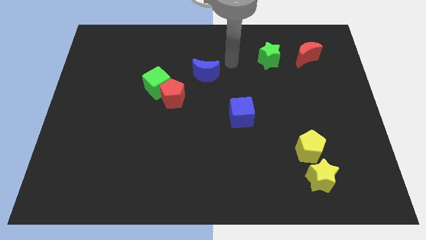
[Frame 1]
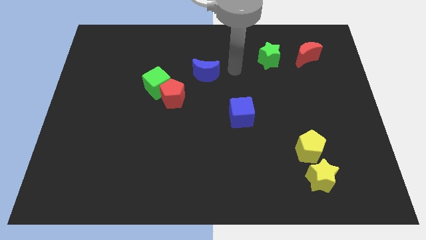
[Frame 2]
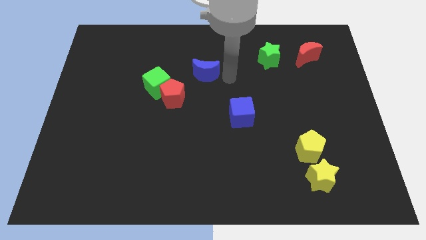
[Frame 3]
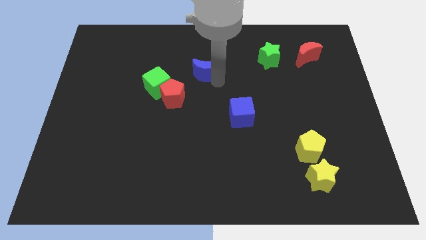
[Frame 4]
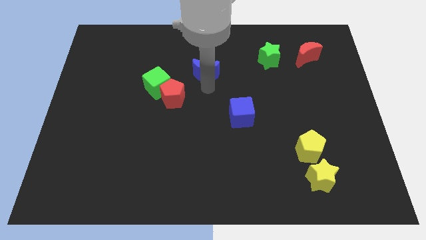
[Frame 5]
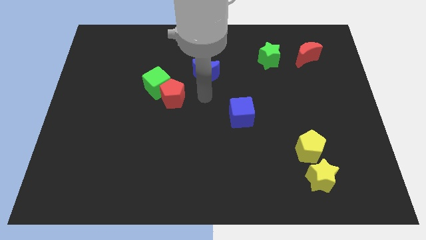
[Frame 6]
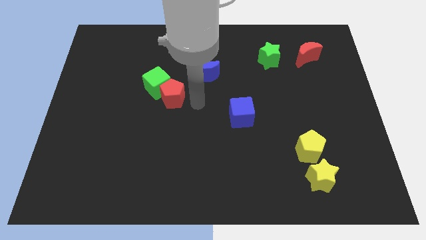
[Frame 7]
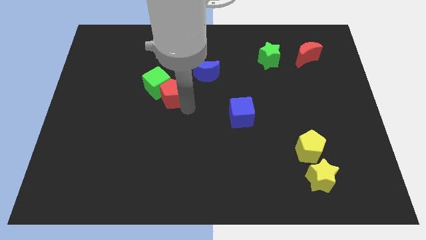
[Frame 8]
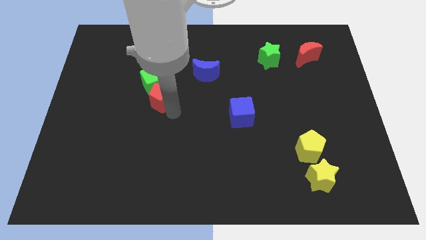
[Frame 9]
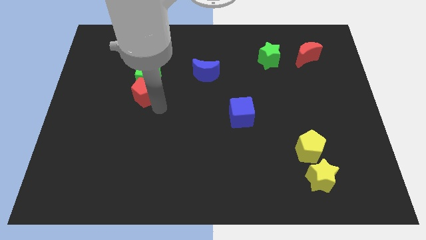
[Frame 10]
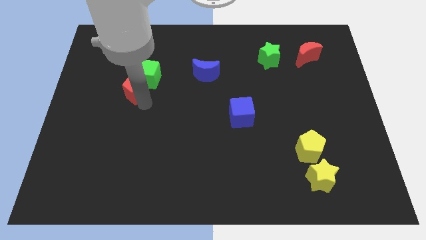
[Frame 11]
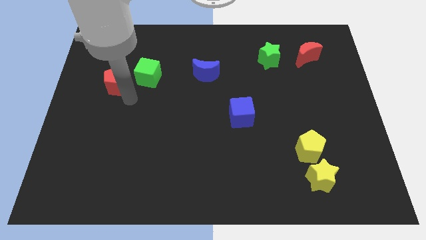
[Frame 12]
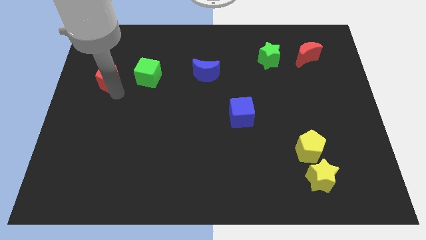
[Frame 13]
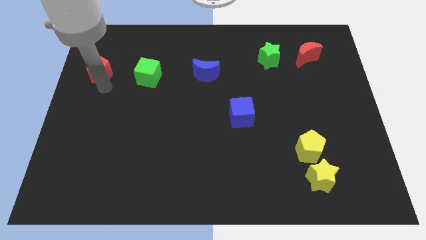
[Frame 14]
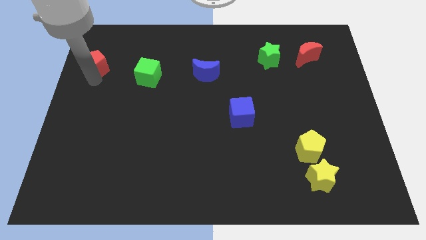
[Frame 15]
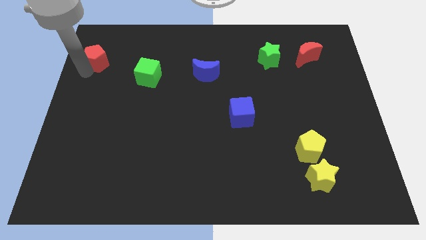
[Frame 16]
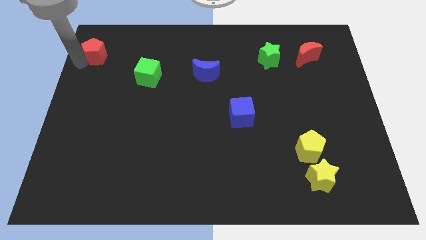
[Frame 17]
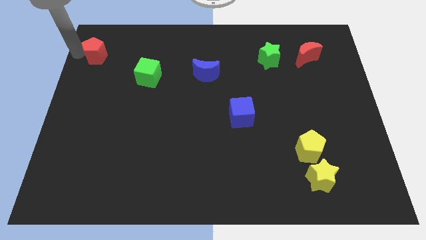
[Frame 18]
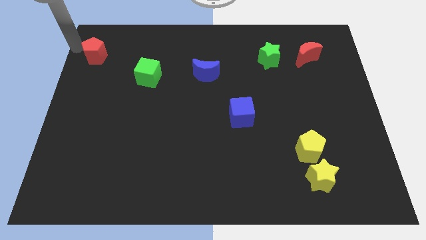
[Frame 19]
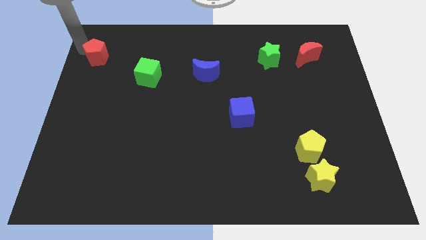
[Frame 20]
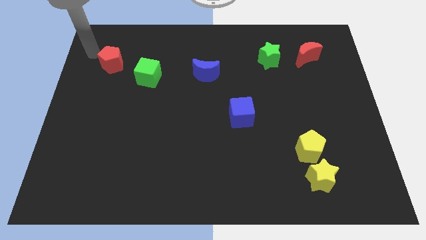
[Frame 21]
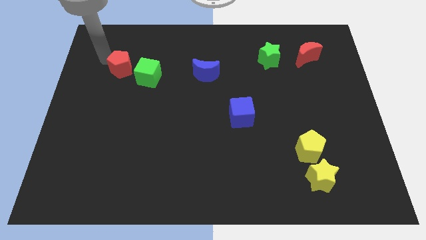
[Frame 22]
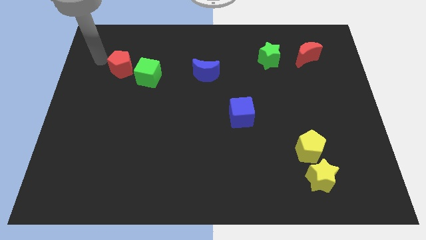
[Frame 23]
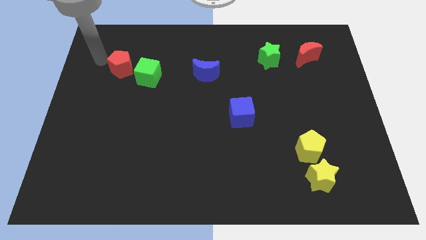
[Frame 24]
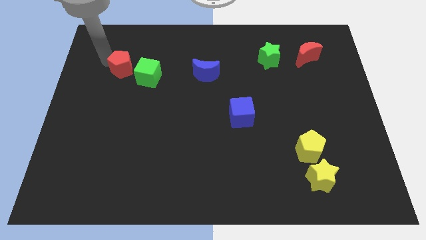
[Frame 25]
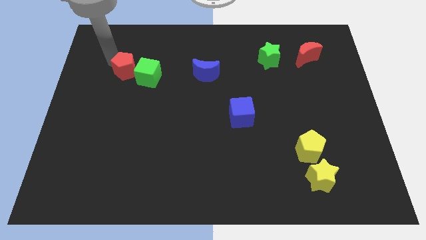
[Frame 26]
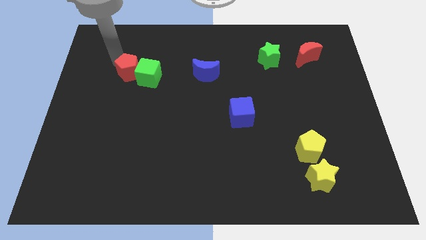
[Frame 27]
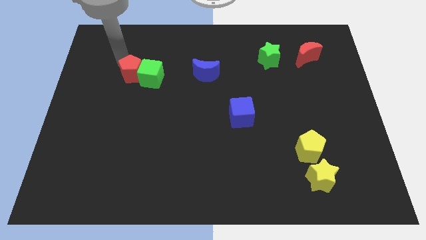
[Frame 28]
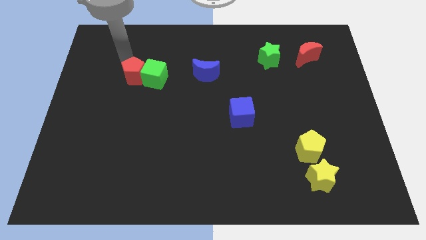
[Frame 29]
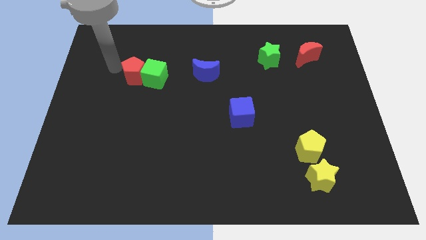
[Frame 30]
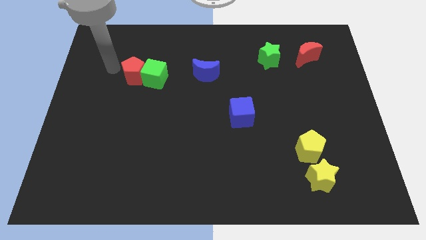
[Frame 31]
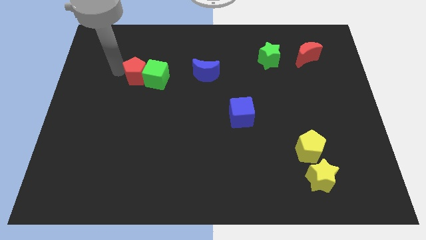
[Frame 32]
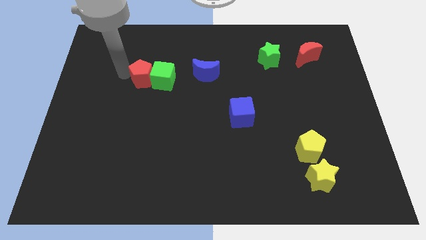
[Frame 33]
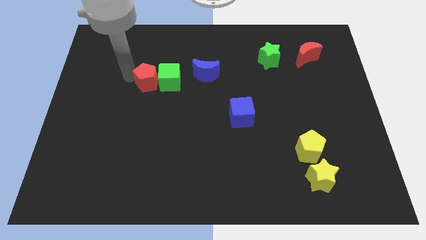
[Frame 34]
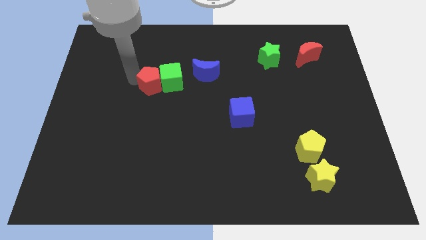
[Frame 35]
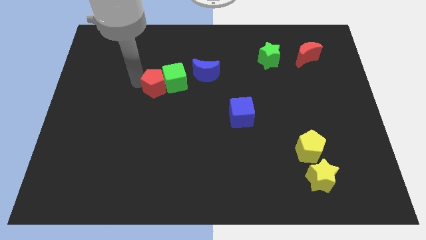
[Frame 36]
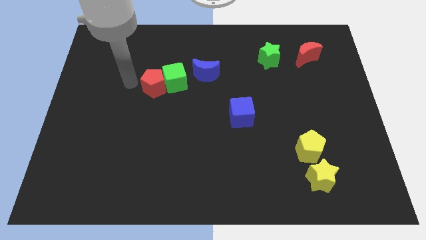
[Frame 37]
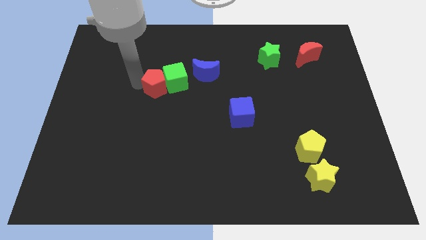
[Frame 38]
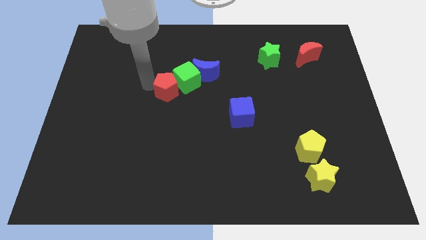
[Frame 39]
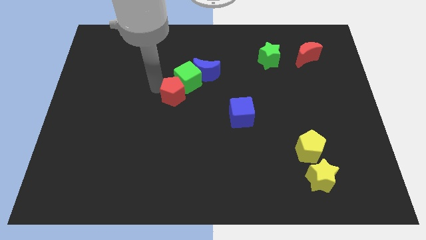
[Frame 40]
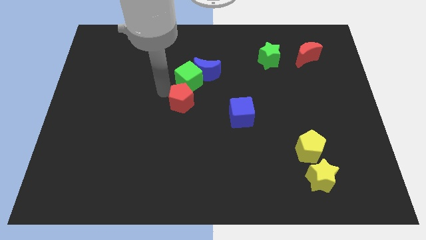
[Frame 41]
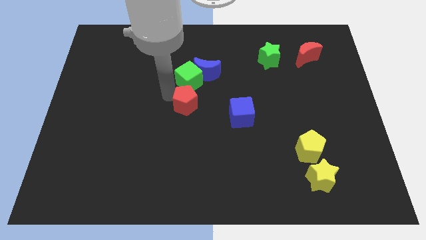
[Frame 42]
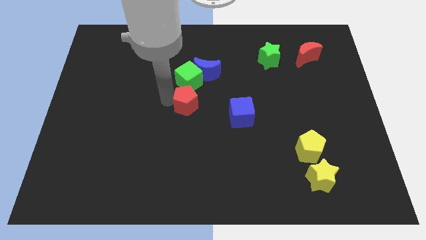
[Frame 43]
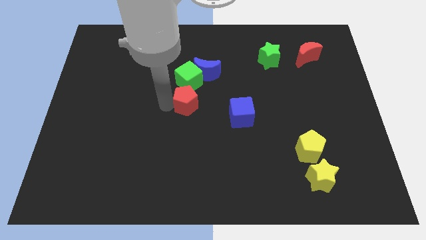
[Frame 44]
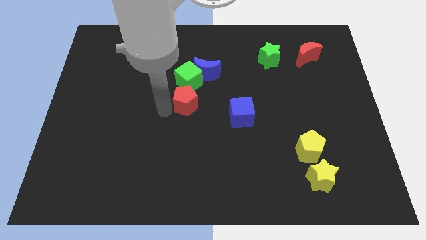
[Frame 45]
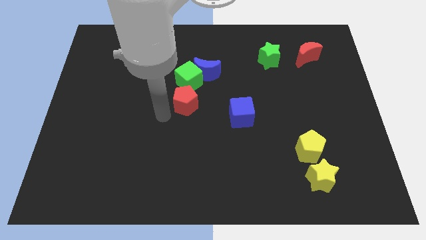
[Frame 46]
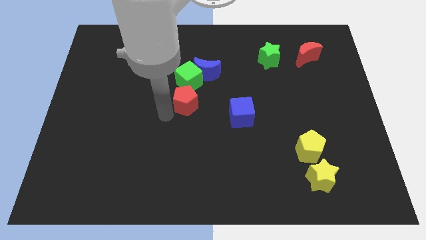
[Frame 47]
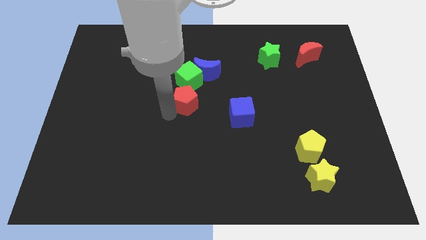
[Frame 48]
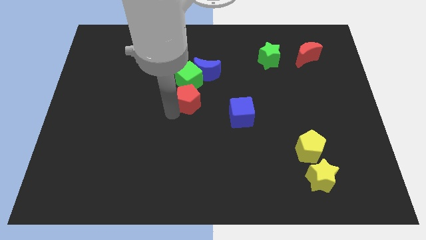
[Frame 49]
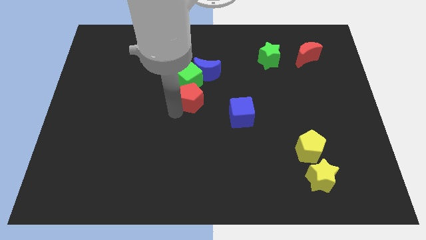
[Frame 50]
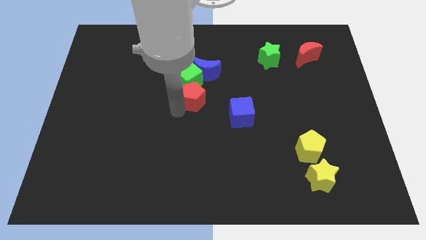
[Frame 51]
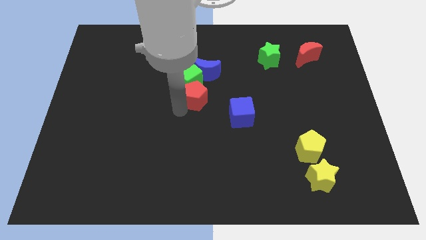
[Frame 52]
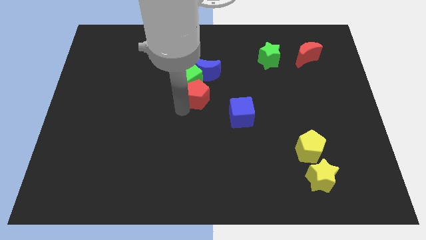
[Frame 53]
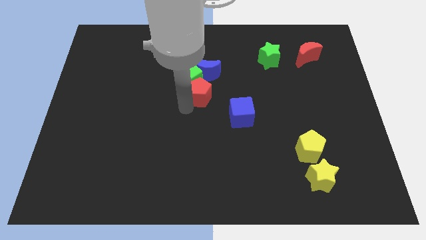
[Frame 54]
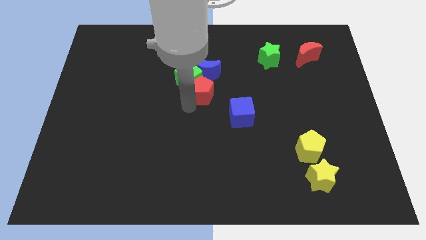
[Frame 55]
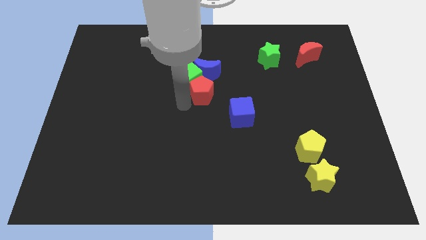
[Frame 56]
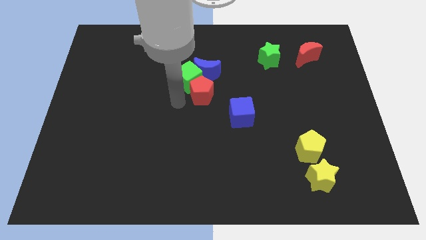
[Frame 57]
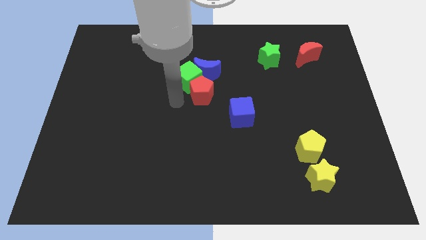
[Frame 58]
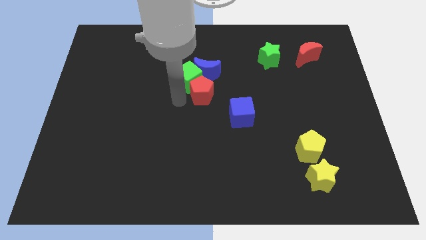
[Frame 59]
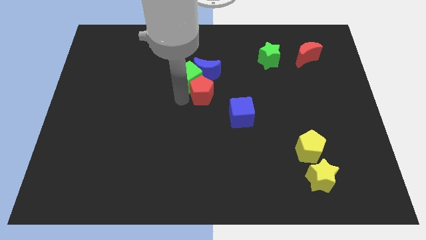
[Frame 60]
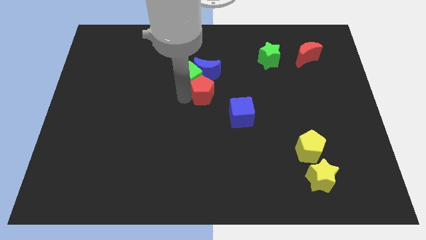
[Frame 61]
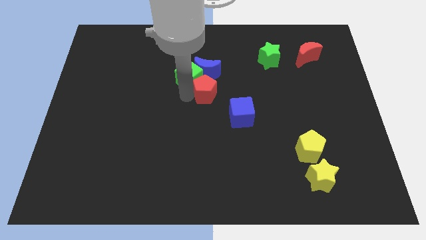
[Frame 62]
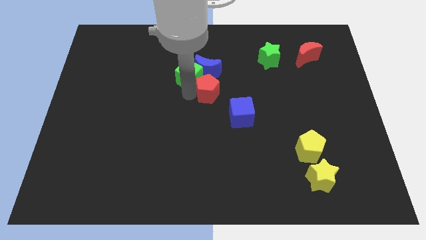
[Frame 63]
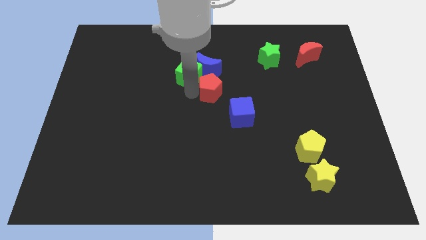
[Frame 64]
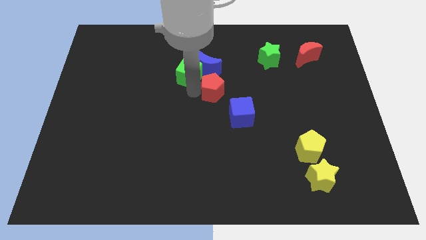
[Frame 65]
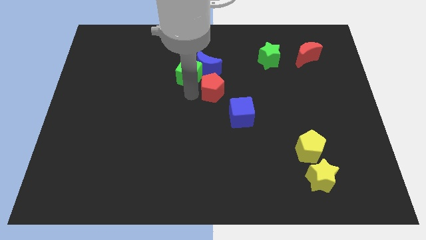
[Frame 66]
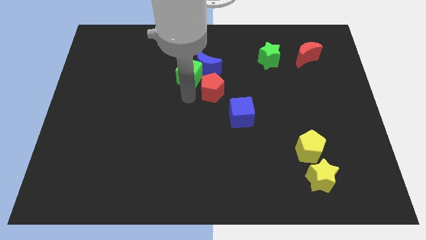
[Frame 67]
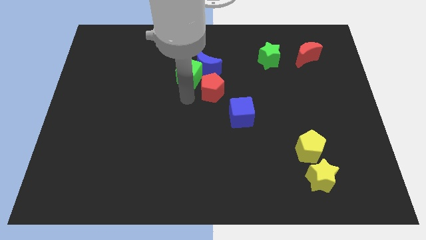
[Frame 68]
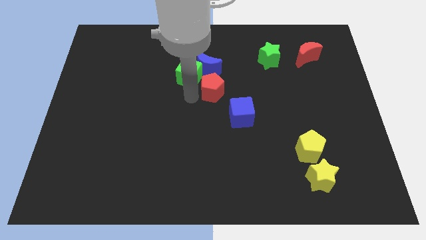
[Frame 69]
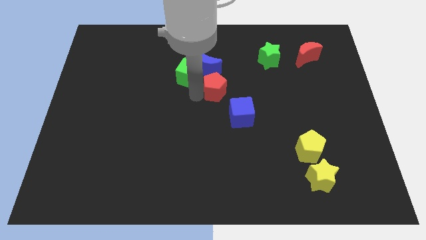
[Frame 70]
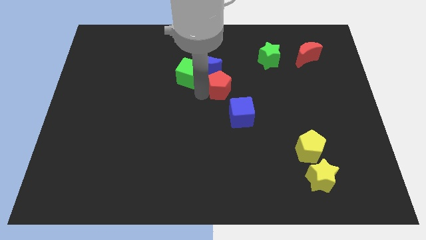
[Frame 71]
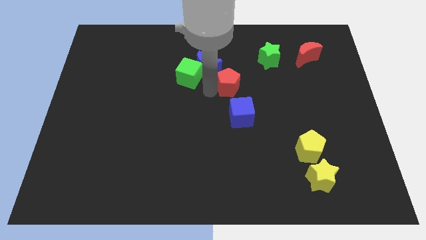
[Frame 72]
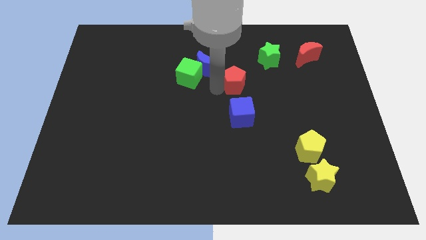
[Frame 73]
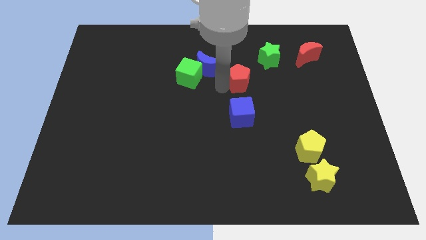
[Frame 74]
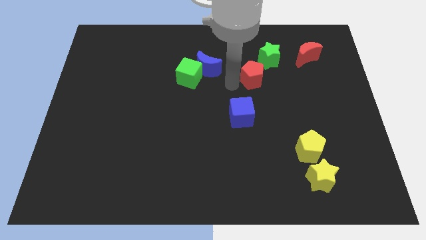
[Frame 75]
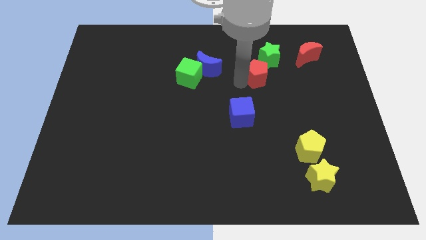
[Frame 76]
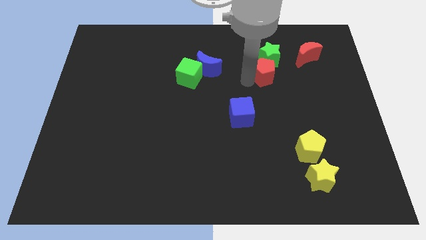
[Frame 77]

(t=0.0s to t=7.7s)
slide the red pentagon to the green star
